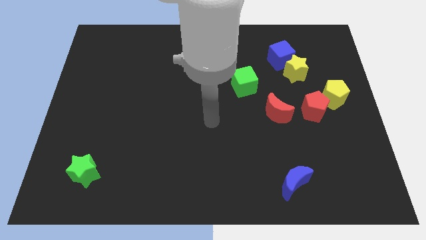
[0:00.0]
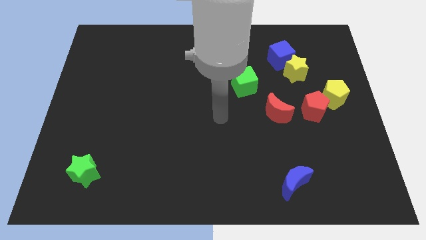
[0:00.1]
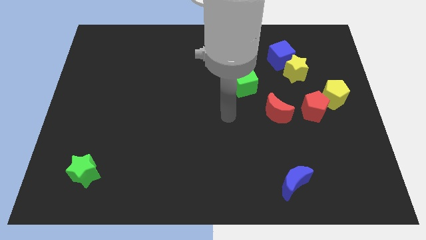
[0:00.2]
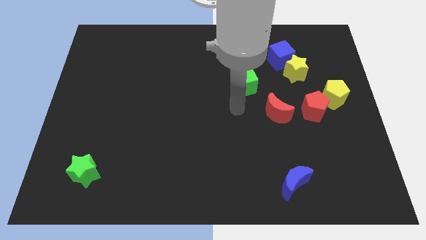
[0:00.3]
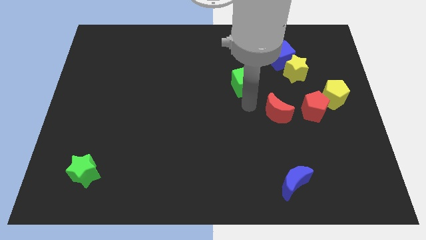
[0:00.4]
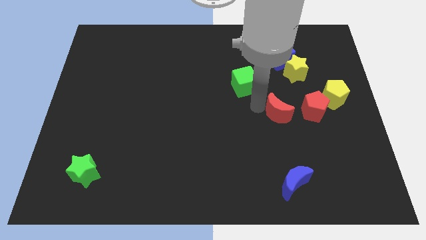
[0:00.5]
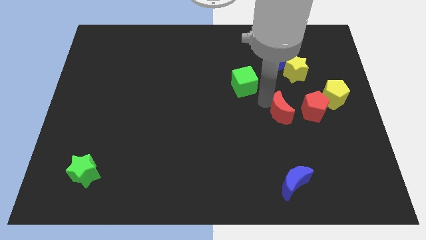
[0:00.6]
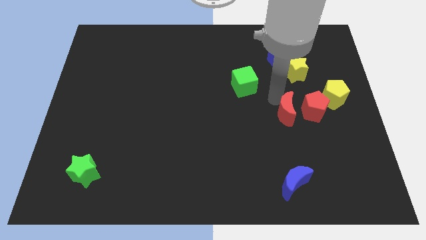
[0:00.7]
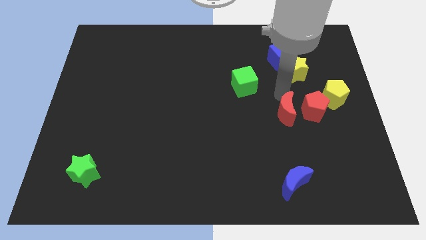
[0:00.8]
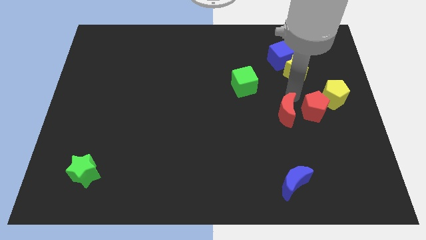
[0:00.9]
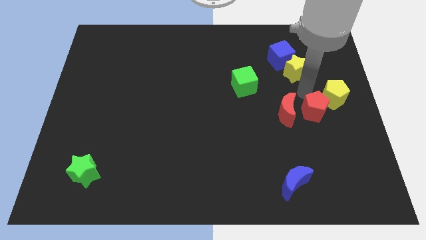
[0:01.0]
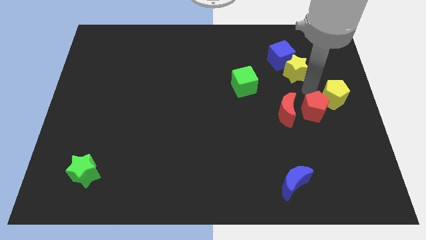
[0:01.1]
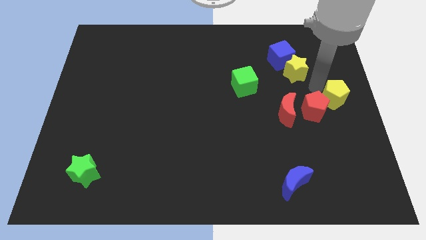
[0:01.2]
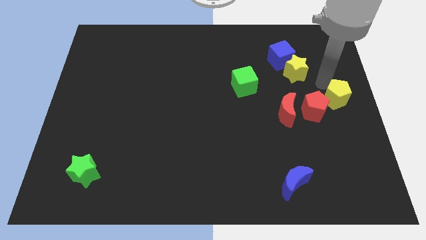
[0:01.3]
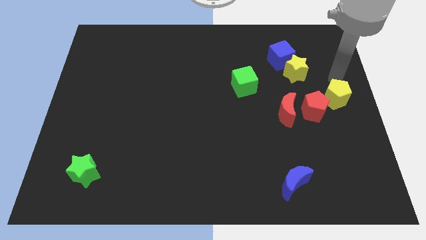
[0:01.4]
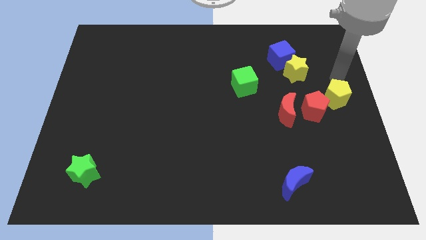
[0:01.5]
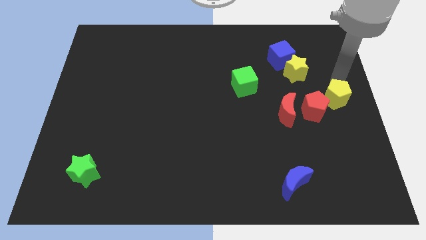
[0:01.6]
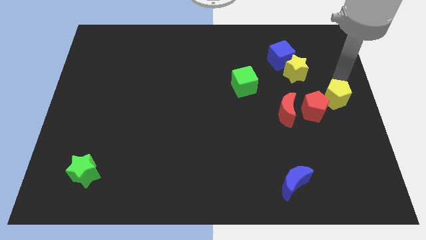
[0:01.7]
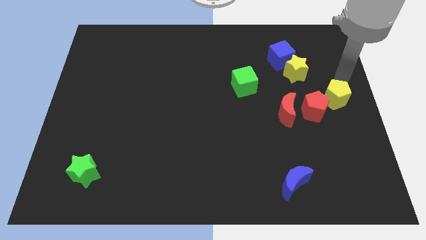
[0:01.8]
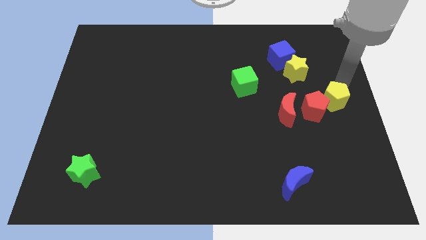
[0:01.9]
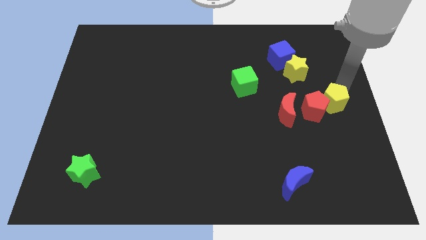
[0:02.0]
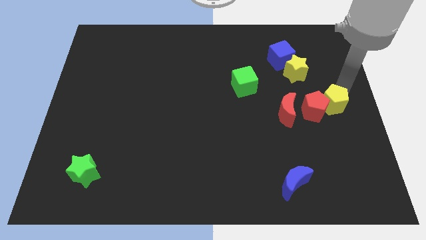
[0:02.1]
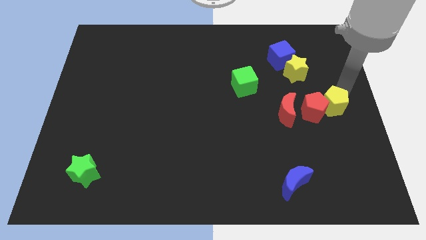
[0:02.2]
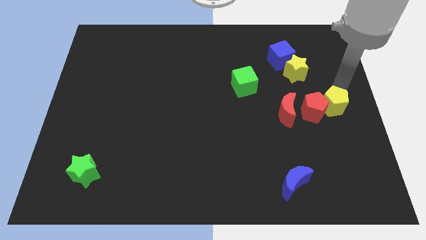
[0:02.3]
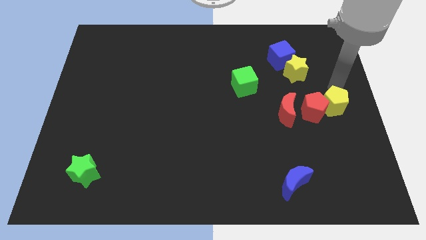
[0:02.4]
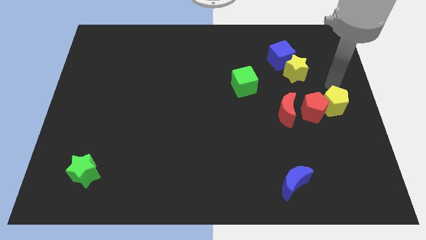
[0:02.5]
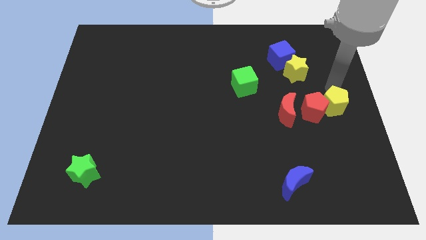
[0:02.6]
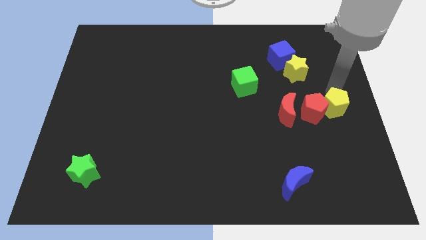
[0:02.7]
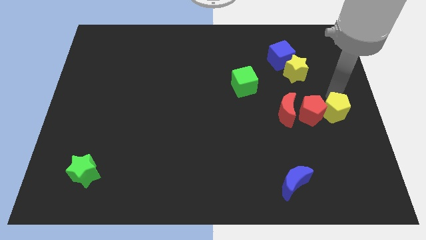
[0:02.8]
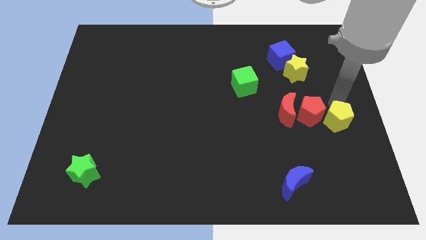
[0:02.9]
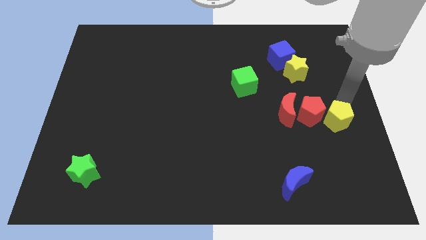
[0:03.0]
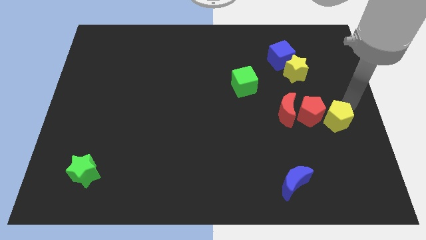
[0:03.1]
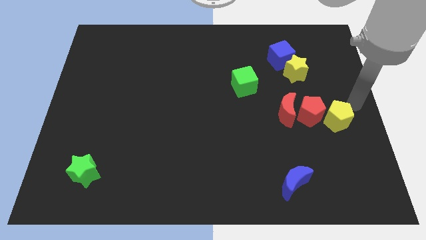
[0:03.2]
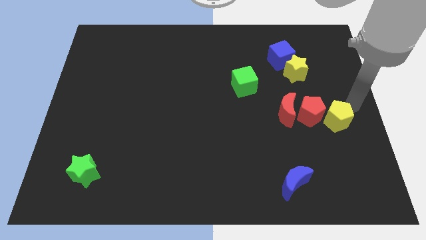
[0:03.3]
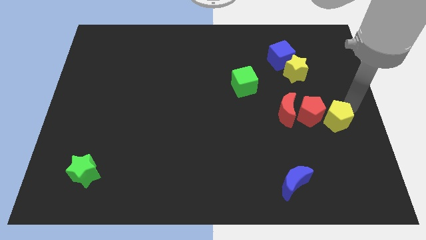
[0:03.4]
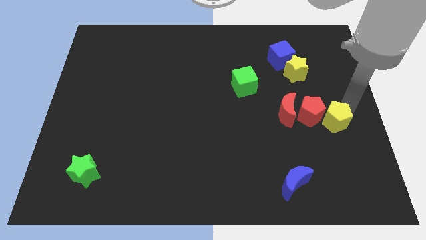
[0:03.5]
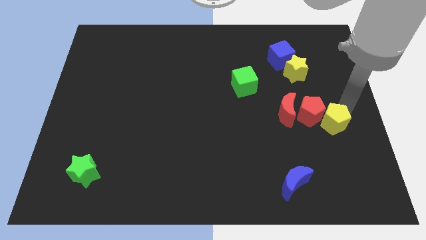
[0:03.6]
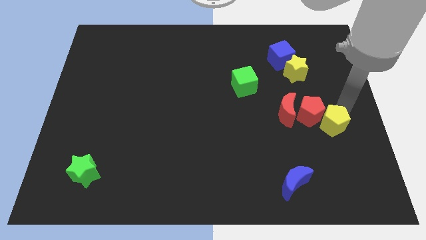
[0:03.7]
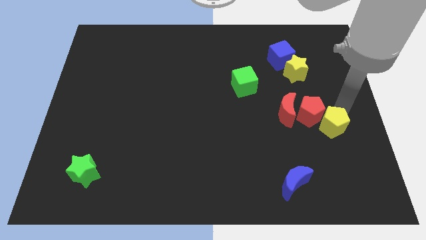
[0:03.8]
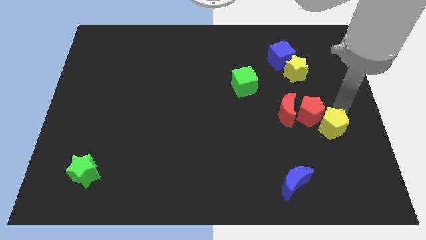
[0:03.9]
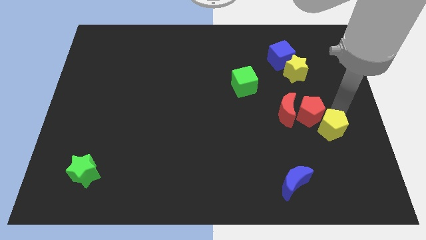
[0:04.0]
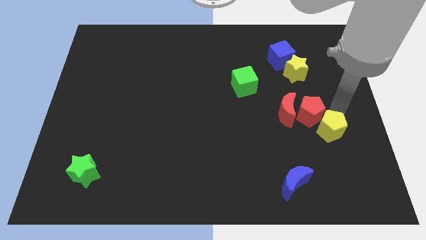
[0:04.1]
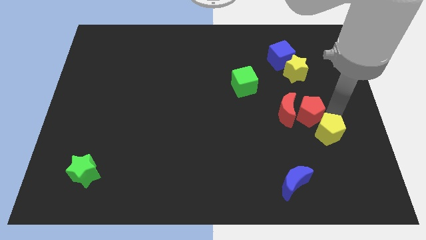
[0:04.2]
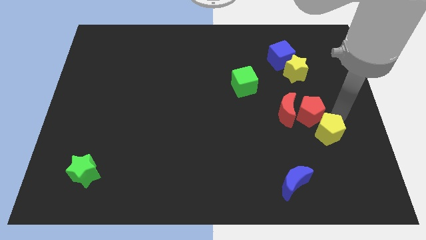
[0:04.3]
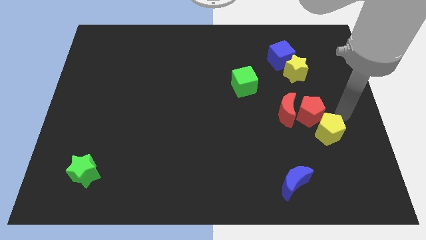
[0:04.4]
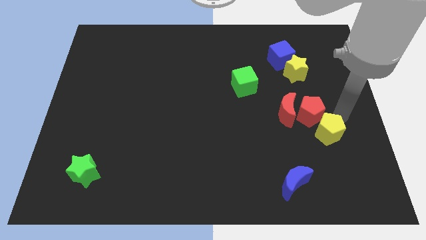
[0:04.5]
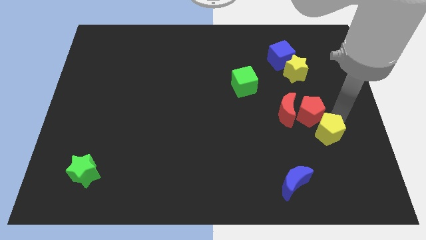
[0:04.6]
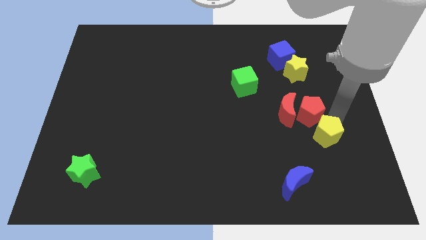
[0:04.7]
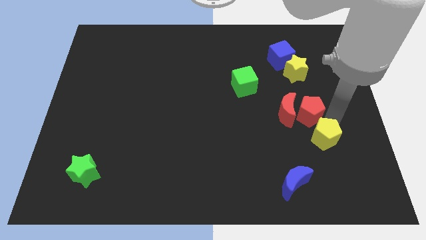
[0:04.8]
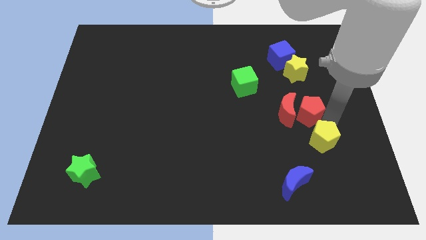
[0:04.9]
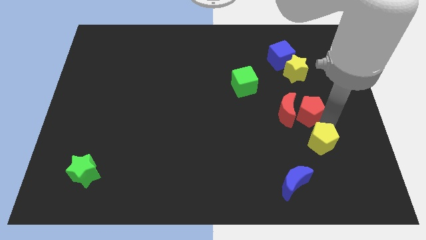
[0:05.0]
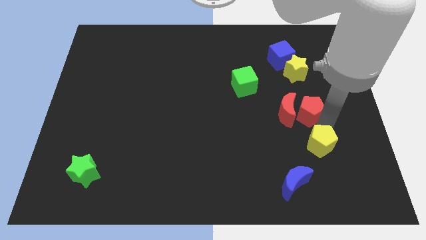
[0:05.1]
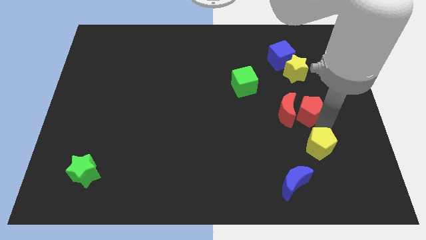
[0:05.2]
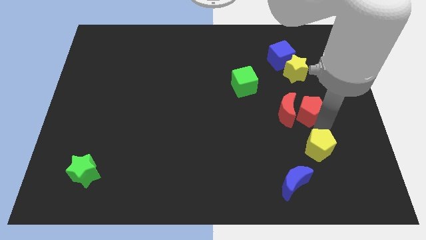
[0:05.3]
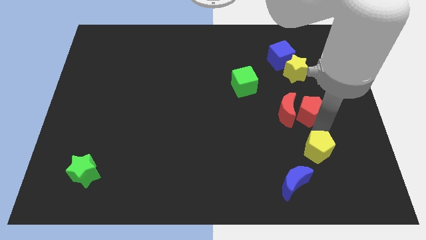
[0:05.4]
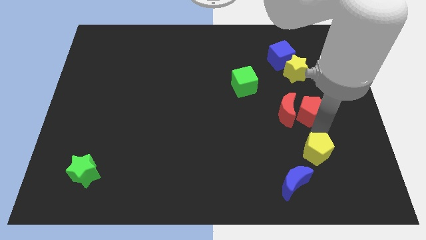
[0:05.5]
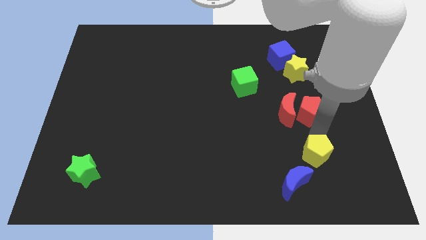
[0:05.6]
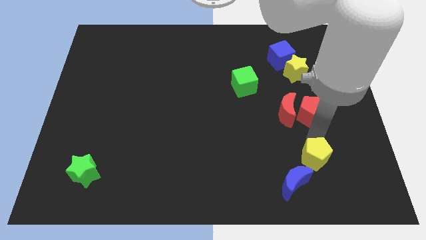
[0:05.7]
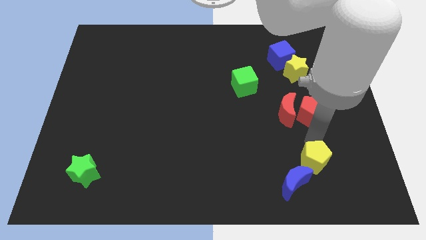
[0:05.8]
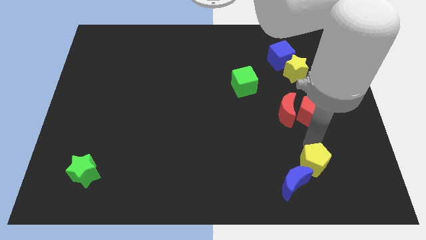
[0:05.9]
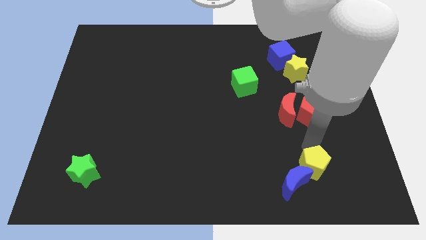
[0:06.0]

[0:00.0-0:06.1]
slide the yellow pentagon towards the blue moon

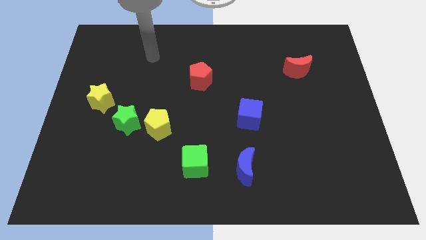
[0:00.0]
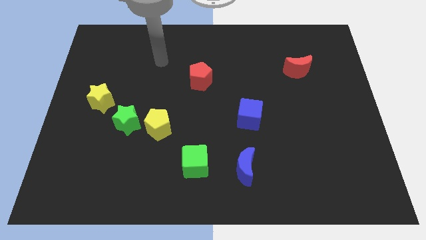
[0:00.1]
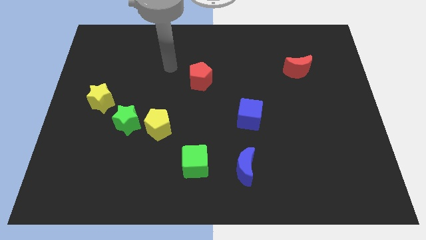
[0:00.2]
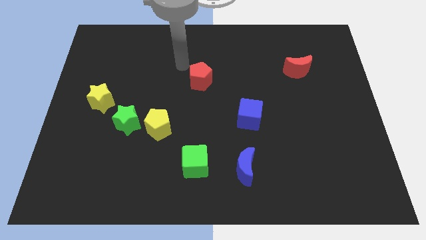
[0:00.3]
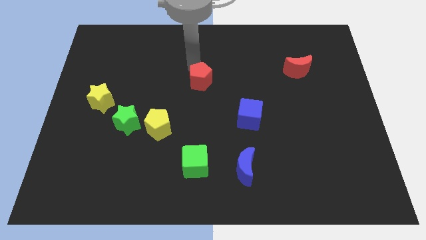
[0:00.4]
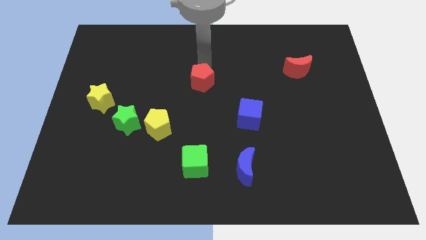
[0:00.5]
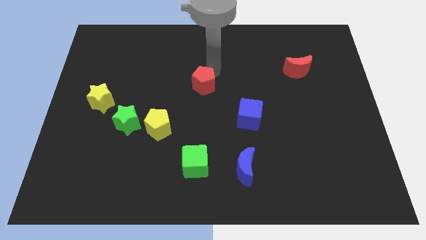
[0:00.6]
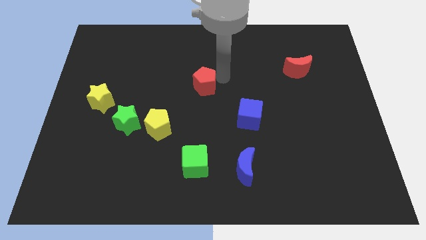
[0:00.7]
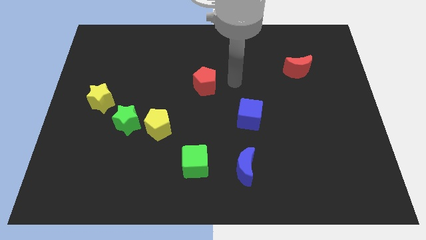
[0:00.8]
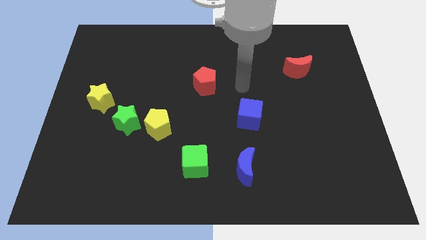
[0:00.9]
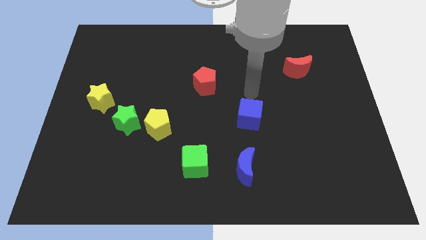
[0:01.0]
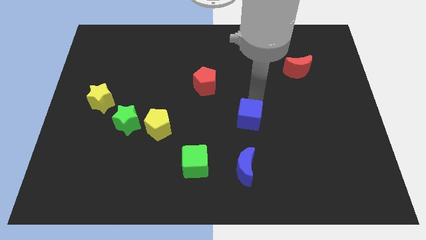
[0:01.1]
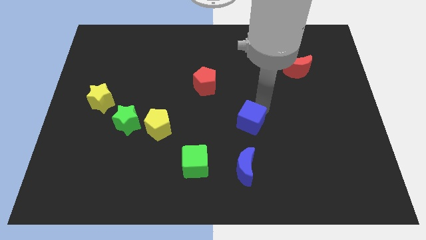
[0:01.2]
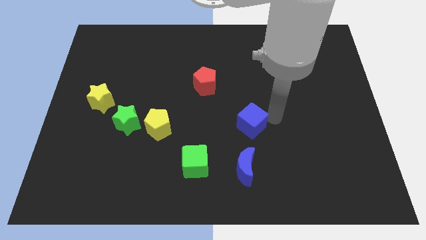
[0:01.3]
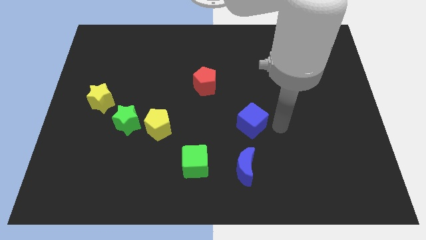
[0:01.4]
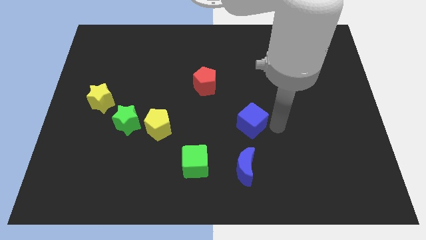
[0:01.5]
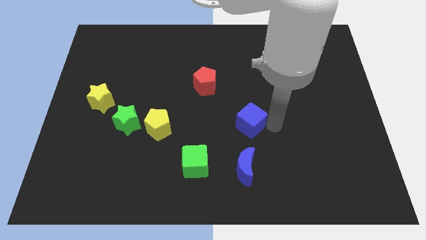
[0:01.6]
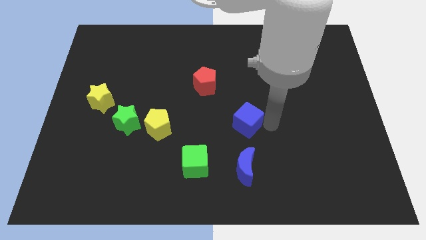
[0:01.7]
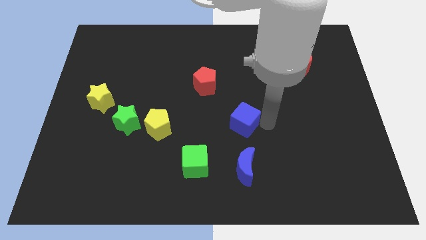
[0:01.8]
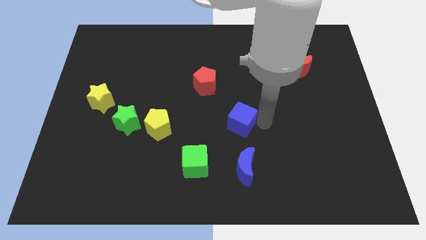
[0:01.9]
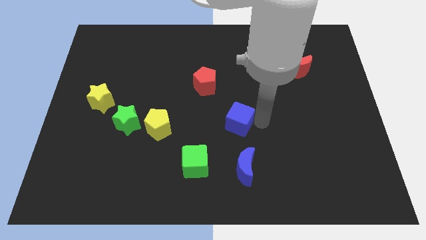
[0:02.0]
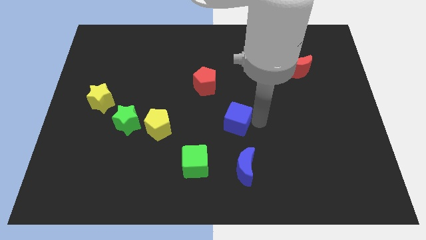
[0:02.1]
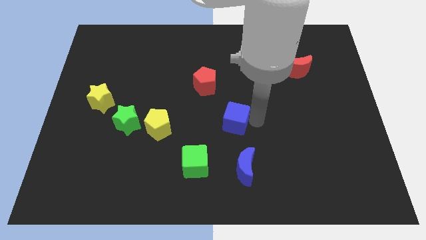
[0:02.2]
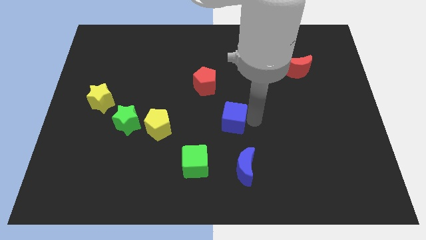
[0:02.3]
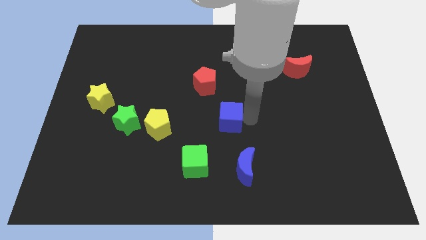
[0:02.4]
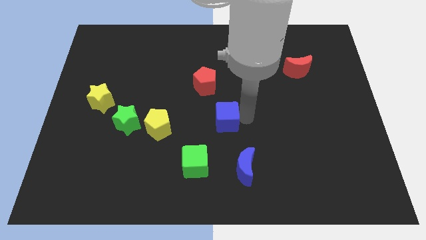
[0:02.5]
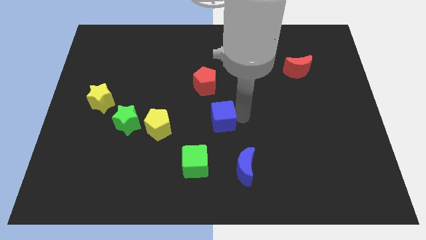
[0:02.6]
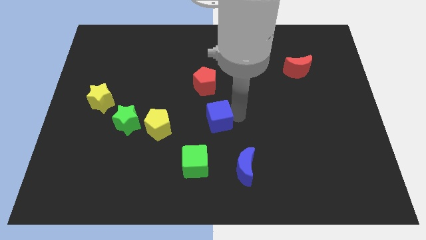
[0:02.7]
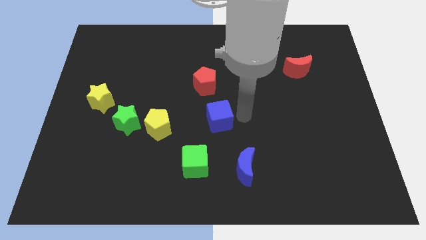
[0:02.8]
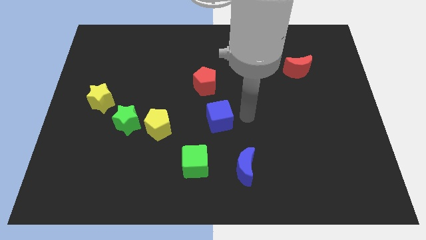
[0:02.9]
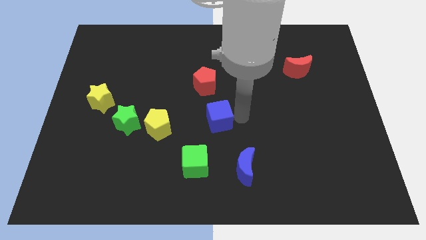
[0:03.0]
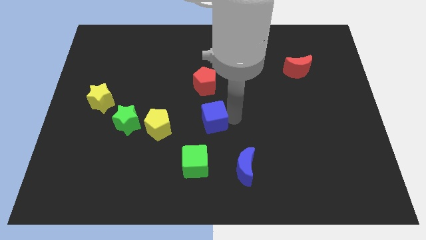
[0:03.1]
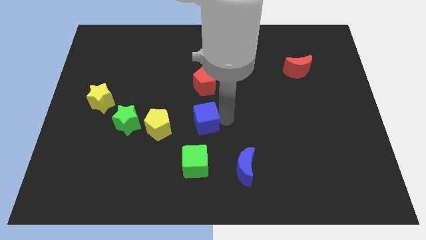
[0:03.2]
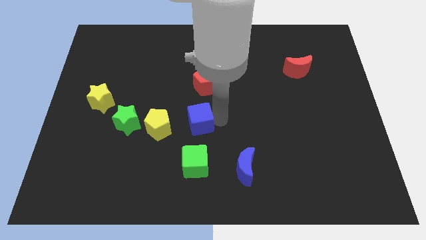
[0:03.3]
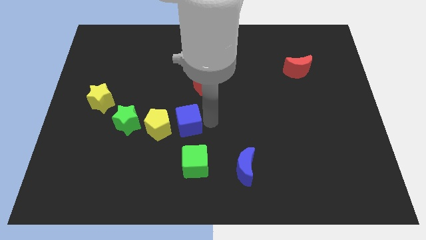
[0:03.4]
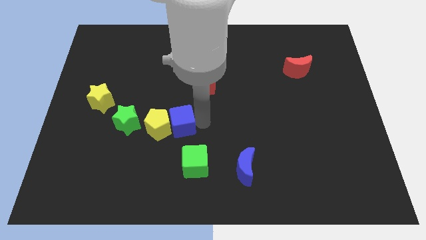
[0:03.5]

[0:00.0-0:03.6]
push the blue cube next to the yellow pentagon
